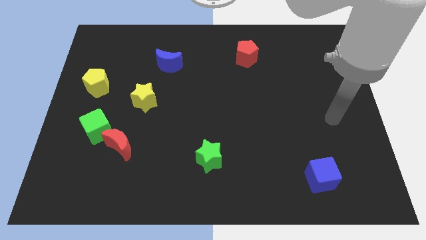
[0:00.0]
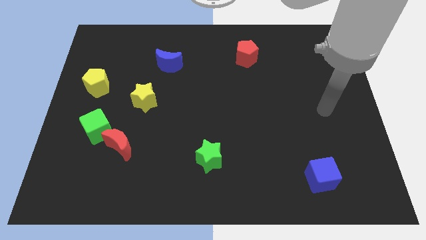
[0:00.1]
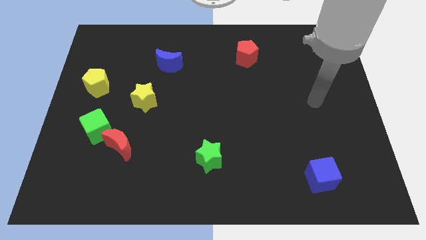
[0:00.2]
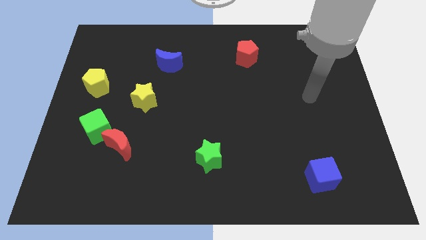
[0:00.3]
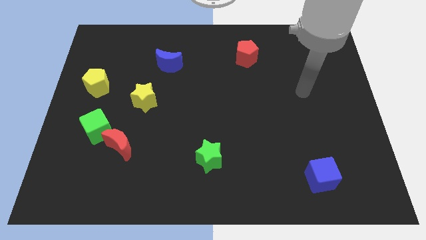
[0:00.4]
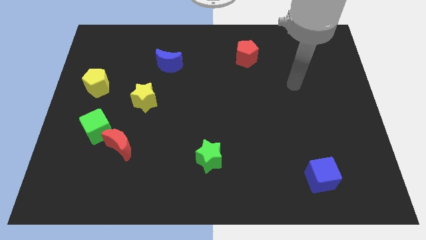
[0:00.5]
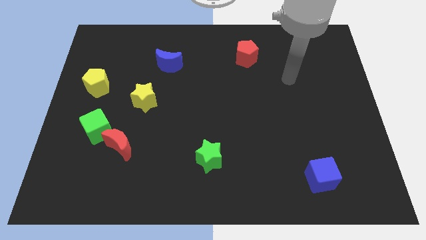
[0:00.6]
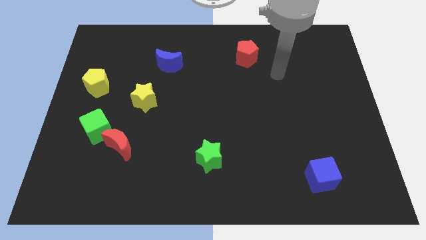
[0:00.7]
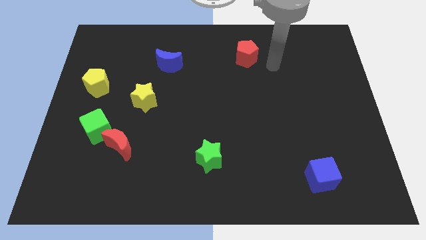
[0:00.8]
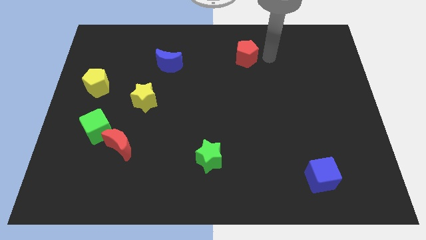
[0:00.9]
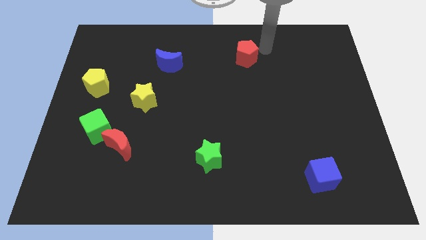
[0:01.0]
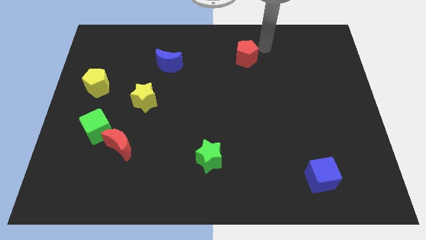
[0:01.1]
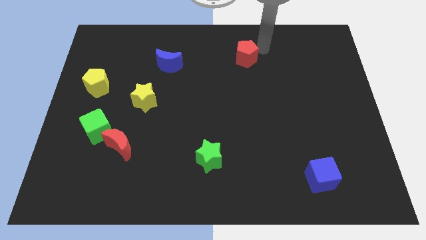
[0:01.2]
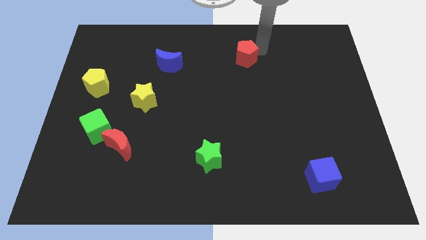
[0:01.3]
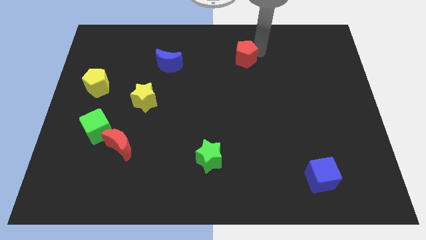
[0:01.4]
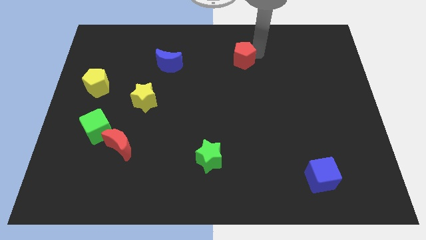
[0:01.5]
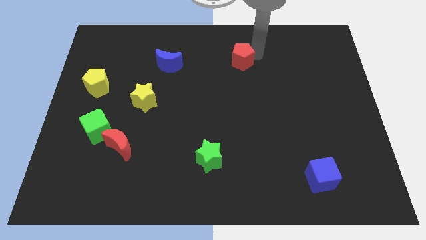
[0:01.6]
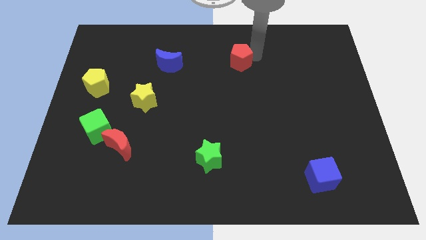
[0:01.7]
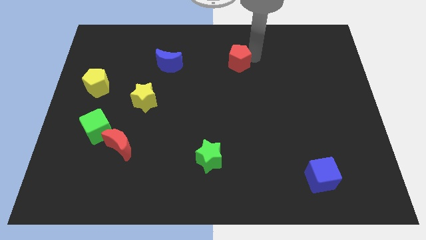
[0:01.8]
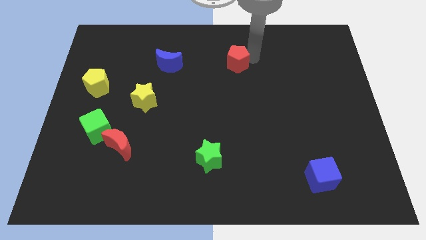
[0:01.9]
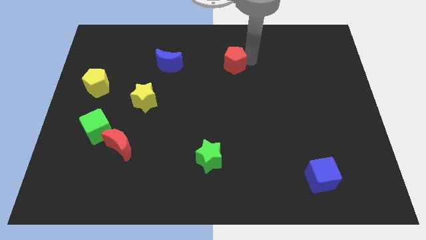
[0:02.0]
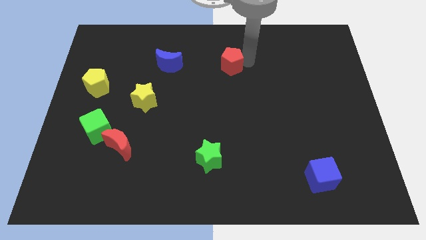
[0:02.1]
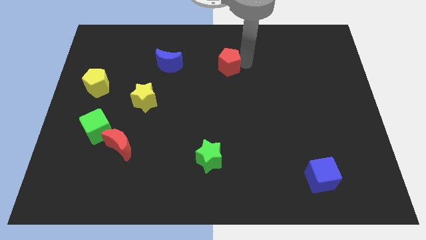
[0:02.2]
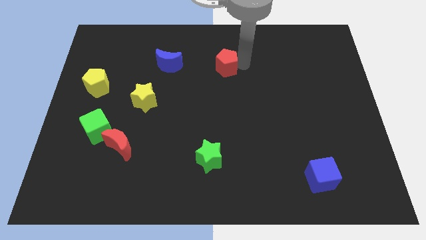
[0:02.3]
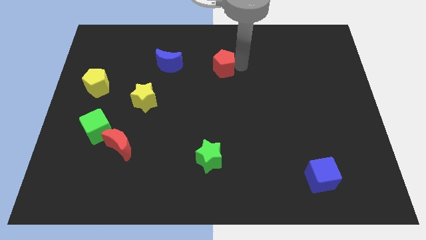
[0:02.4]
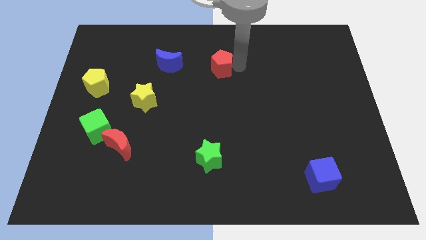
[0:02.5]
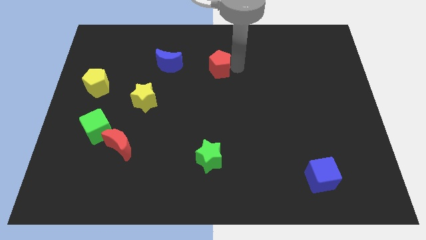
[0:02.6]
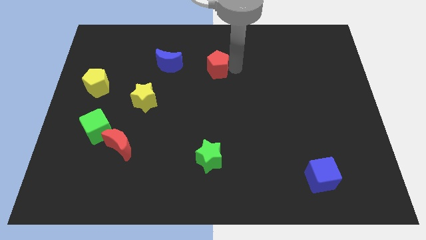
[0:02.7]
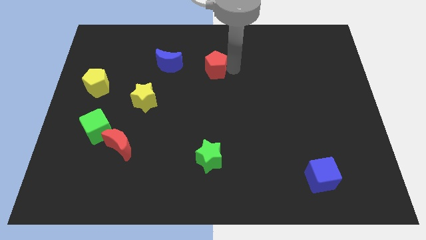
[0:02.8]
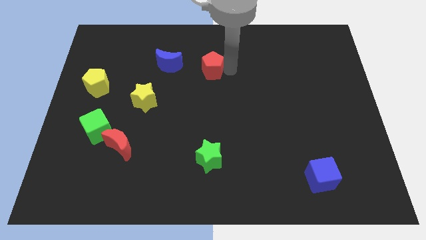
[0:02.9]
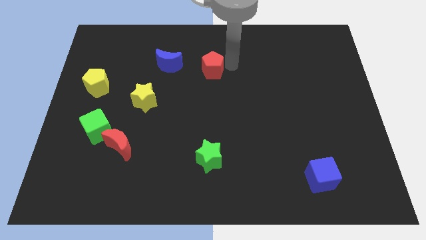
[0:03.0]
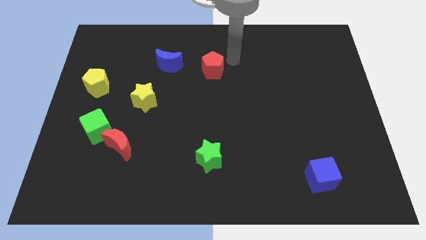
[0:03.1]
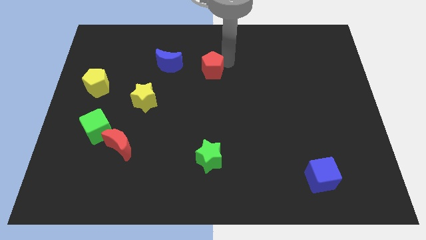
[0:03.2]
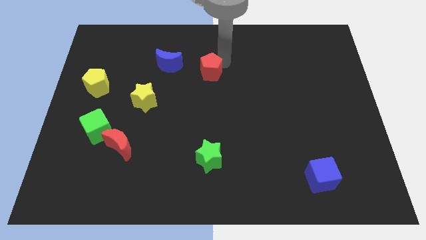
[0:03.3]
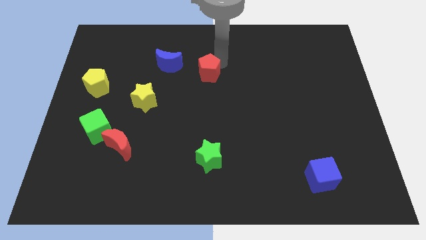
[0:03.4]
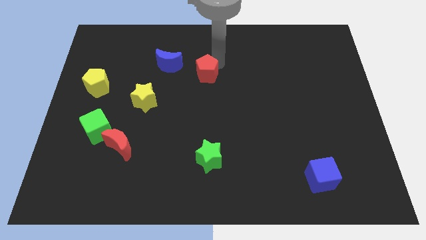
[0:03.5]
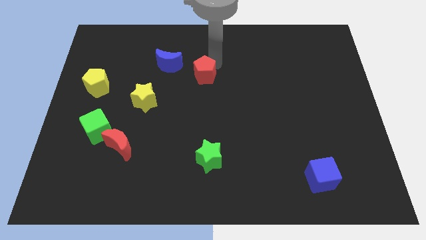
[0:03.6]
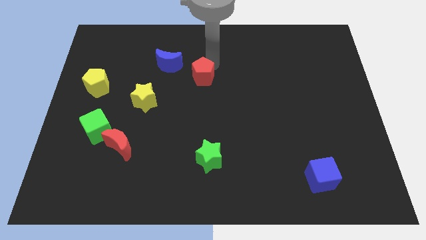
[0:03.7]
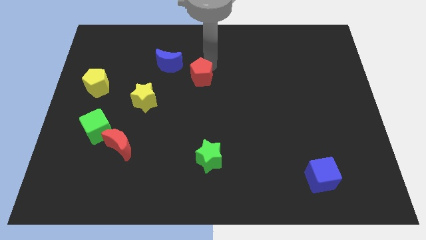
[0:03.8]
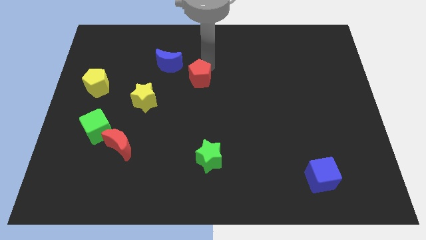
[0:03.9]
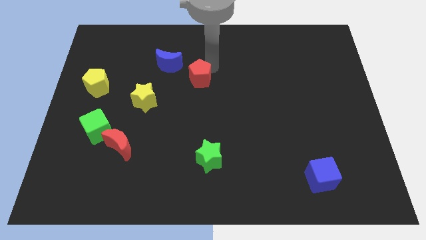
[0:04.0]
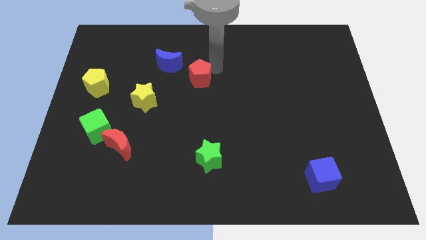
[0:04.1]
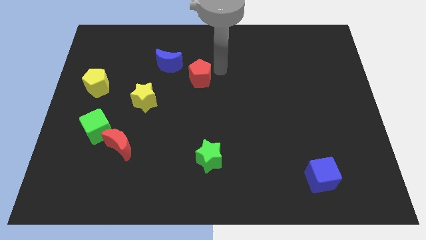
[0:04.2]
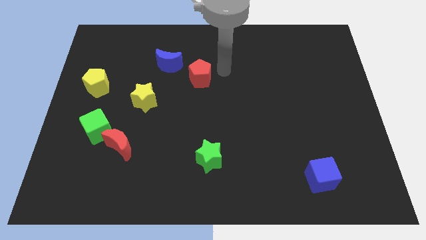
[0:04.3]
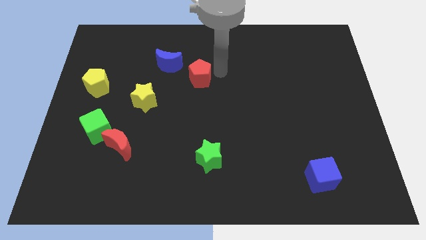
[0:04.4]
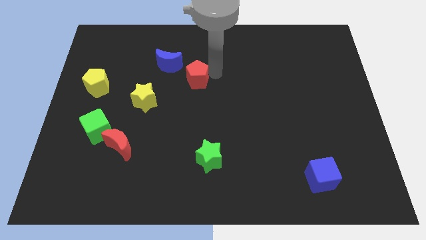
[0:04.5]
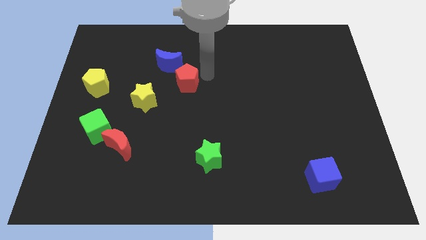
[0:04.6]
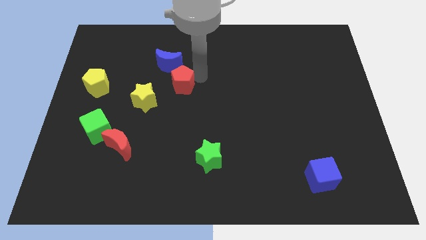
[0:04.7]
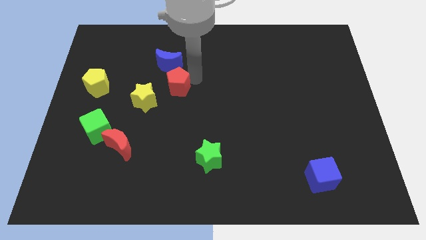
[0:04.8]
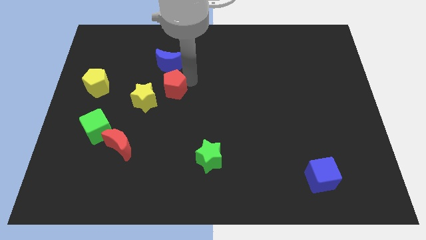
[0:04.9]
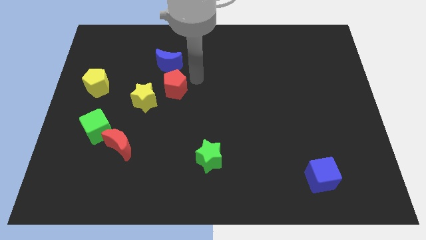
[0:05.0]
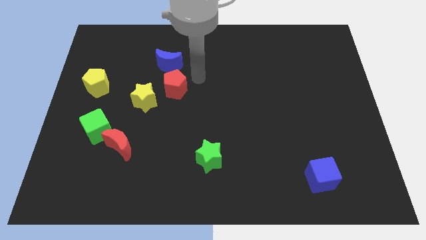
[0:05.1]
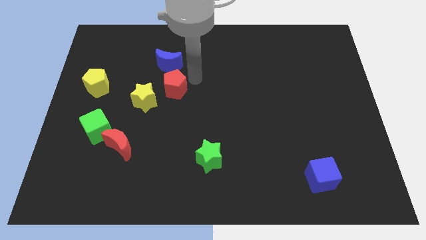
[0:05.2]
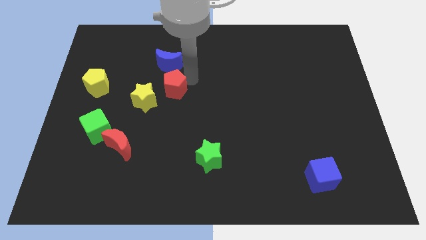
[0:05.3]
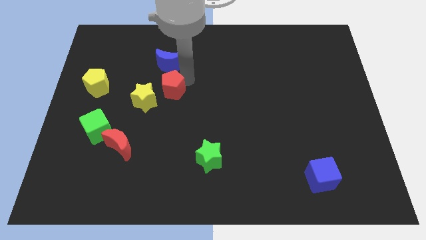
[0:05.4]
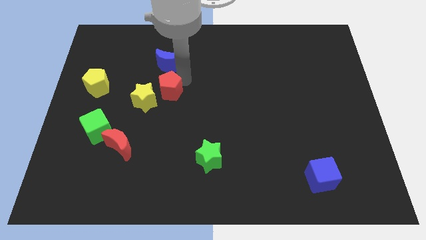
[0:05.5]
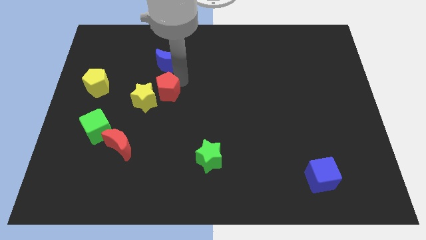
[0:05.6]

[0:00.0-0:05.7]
push the red pentagon close to the yellow star

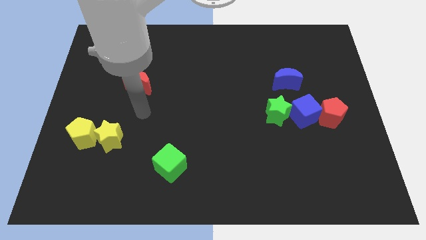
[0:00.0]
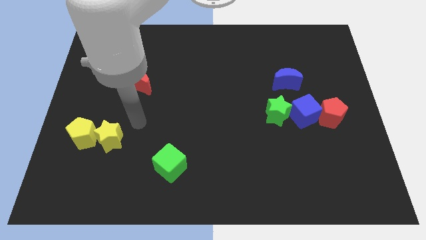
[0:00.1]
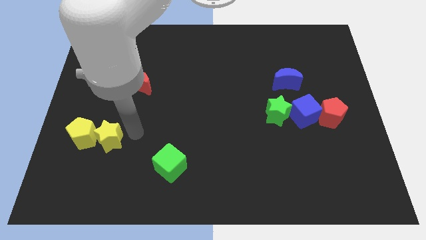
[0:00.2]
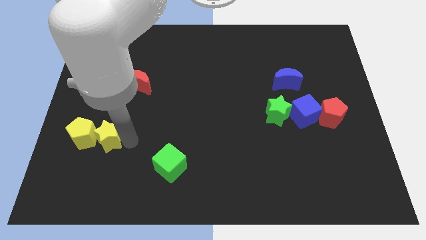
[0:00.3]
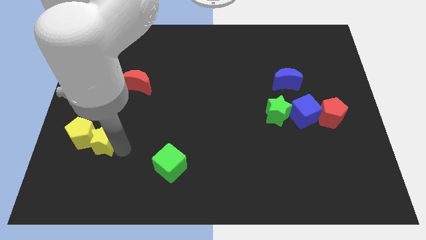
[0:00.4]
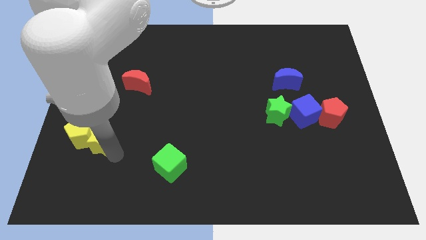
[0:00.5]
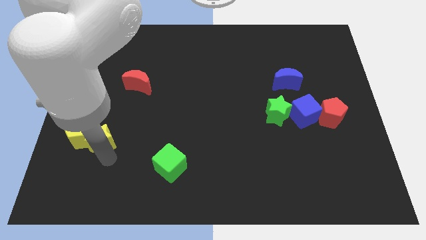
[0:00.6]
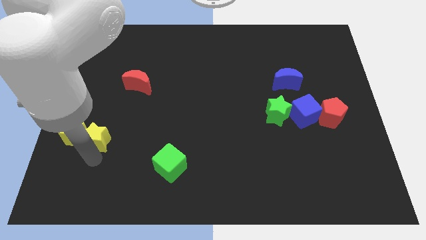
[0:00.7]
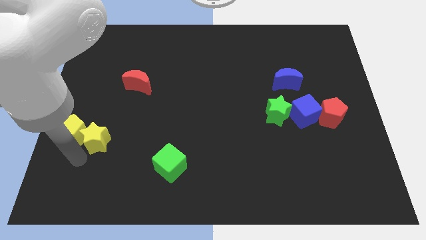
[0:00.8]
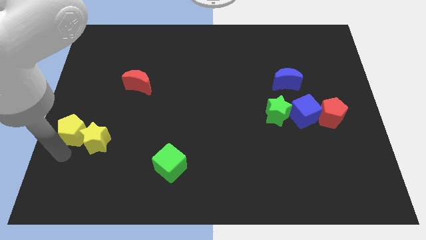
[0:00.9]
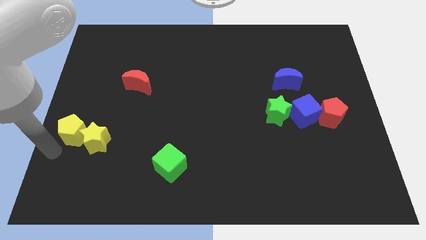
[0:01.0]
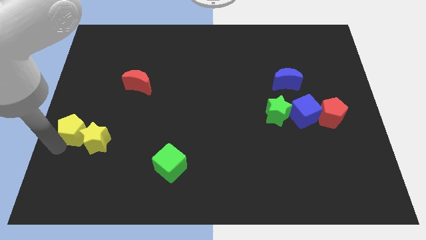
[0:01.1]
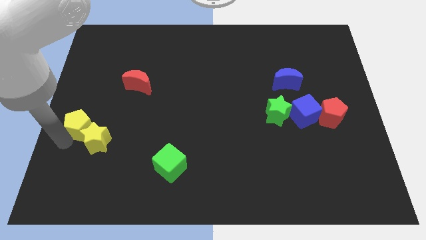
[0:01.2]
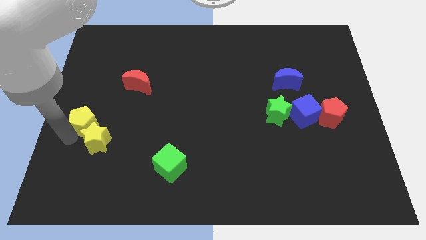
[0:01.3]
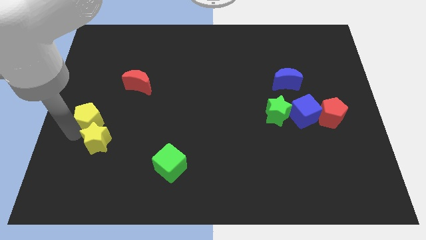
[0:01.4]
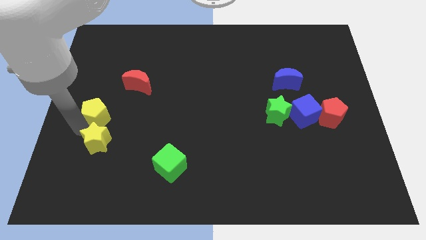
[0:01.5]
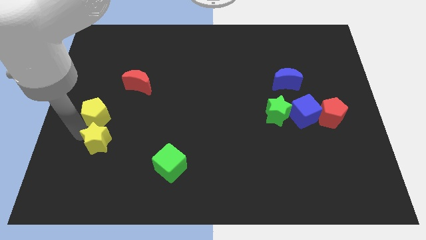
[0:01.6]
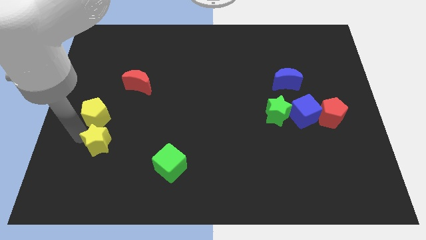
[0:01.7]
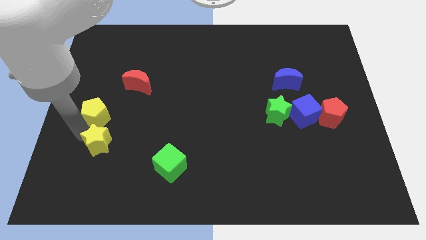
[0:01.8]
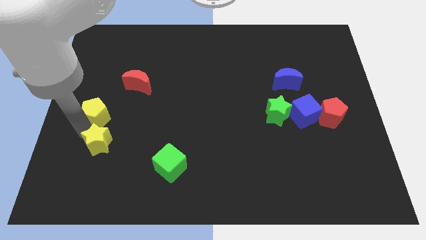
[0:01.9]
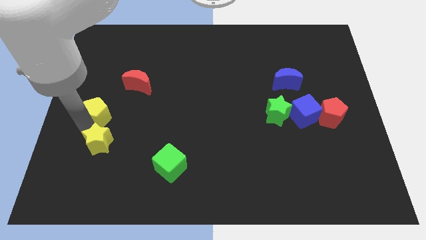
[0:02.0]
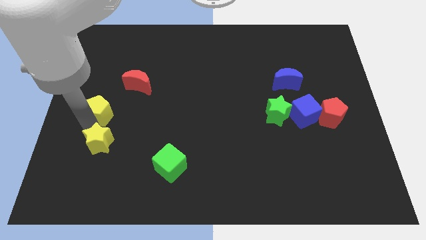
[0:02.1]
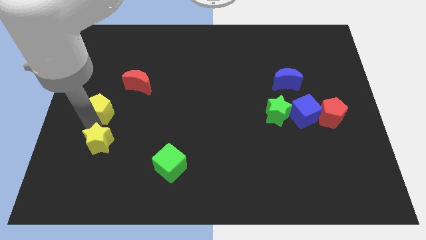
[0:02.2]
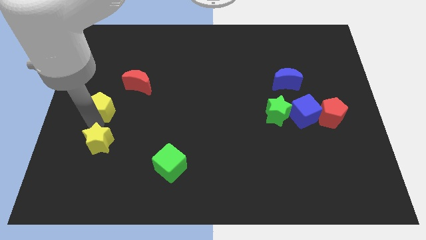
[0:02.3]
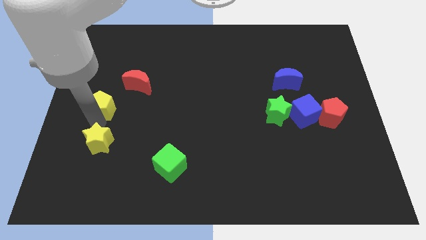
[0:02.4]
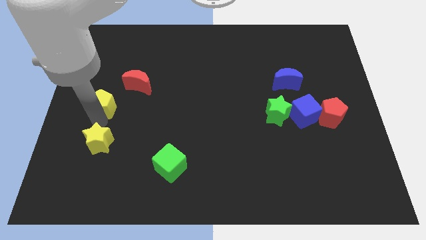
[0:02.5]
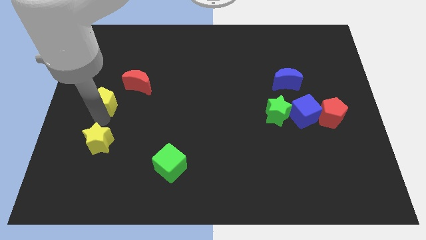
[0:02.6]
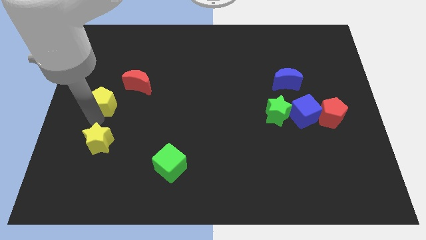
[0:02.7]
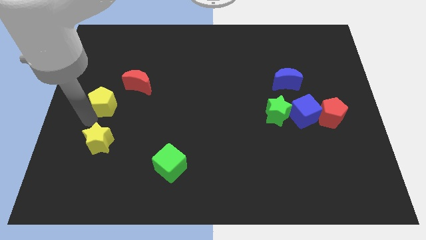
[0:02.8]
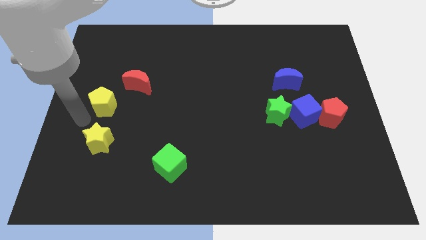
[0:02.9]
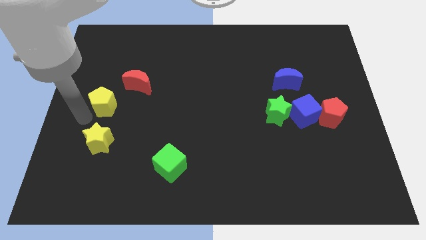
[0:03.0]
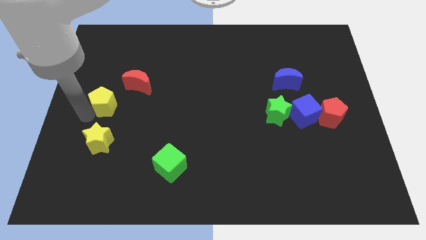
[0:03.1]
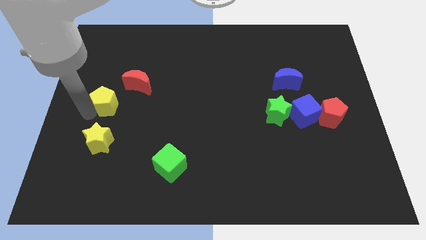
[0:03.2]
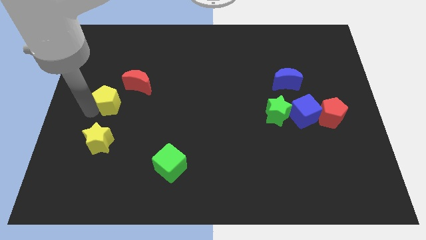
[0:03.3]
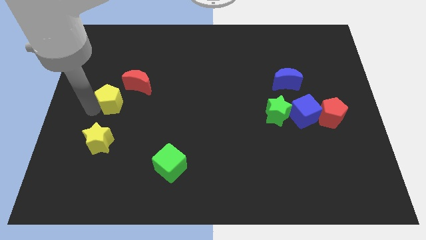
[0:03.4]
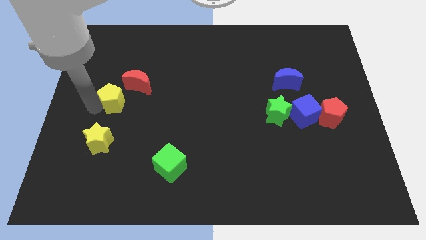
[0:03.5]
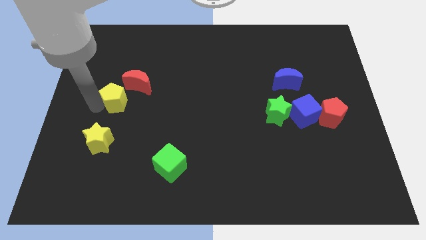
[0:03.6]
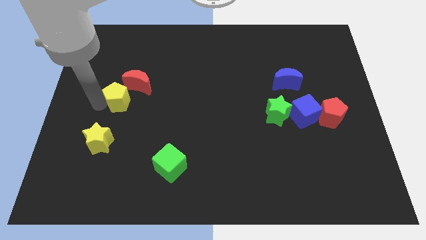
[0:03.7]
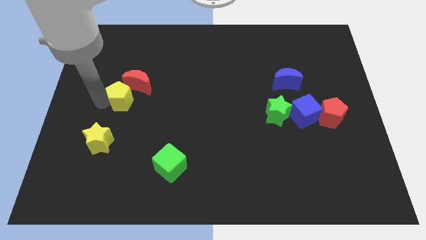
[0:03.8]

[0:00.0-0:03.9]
put the yellow pentagon close to the red moon
